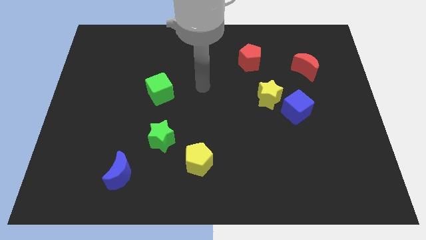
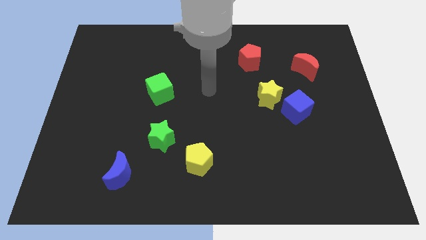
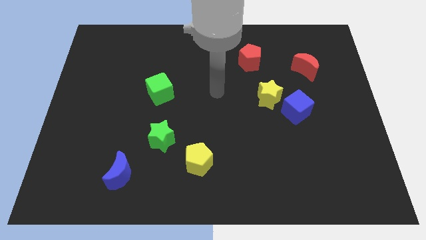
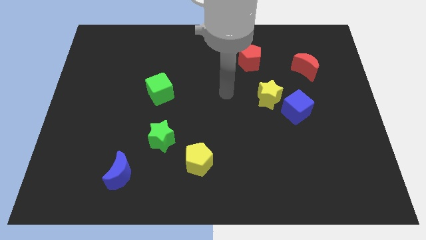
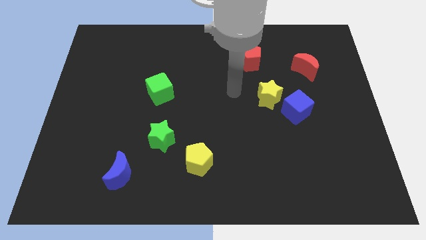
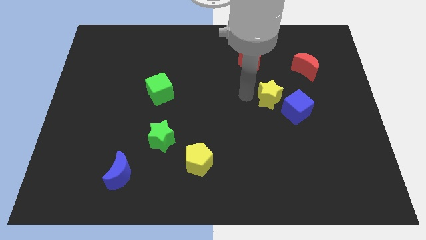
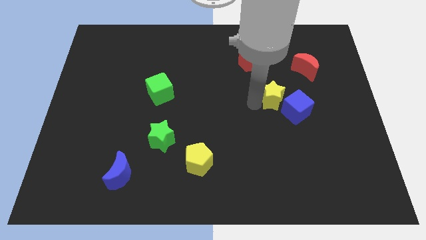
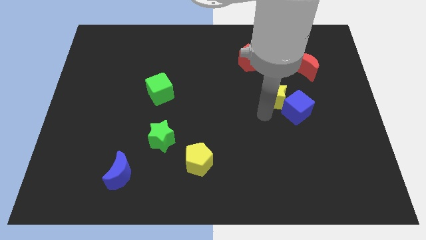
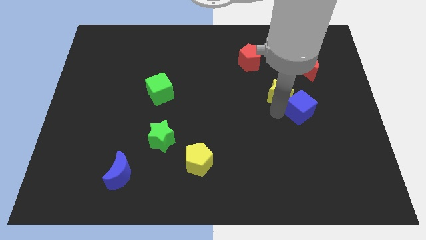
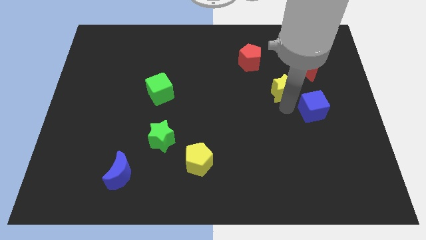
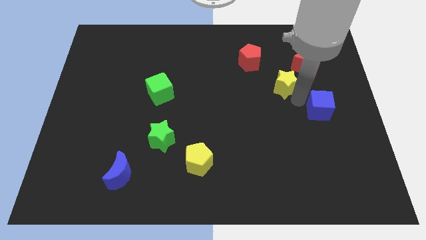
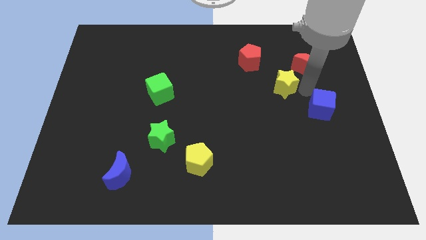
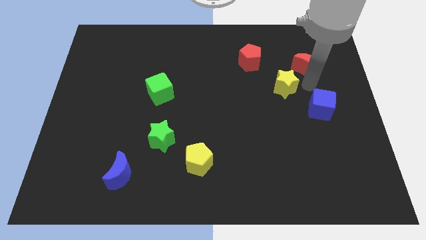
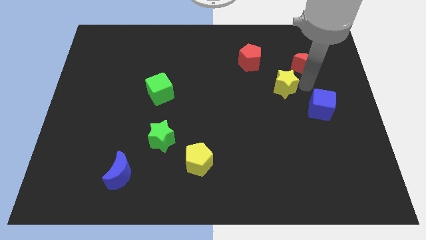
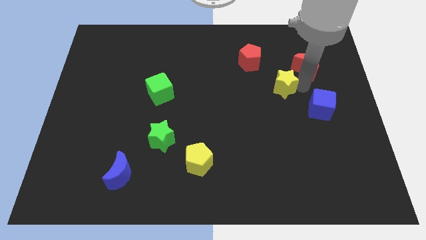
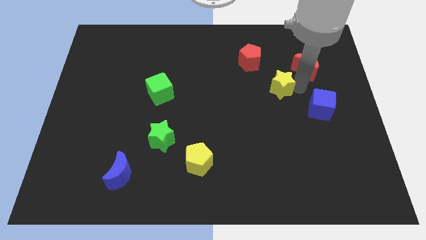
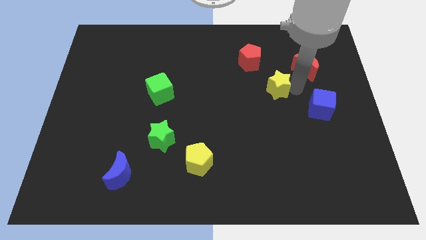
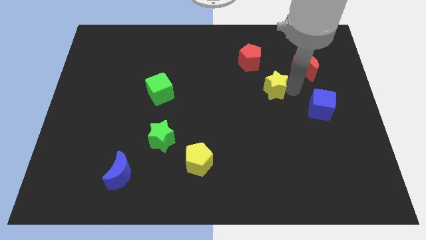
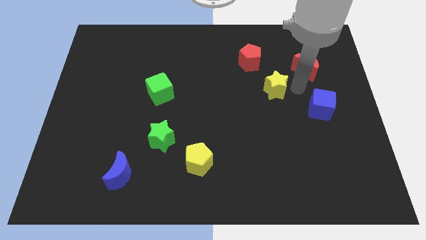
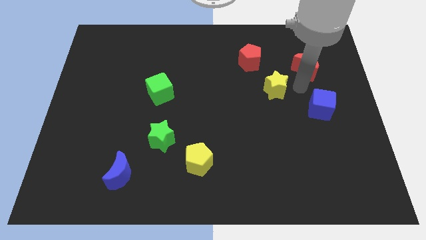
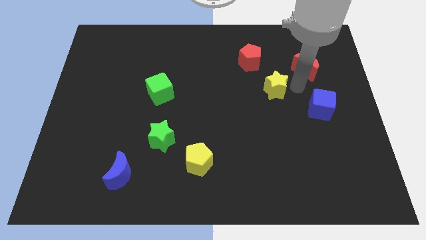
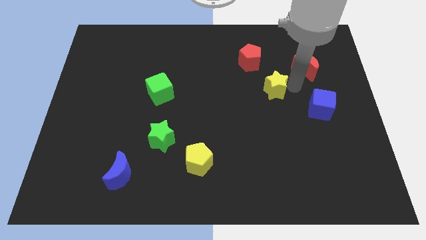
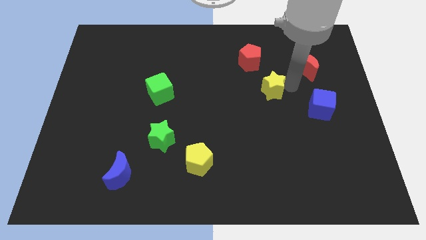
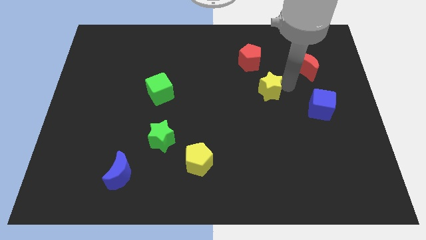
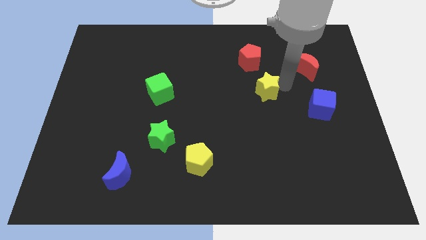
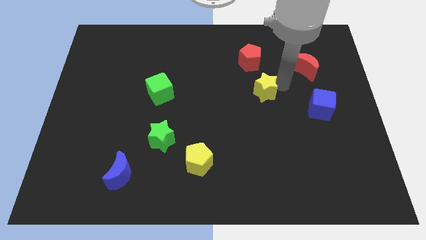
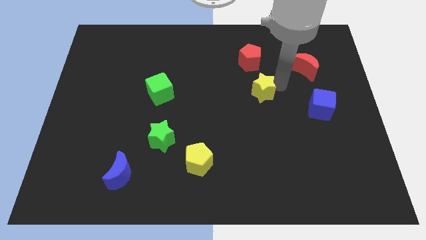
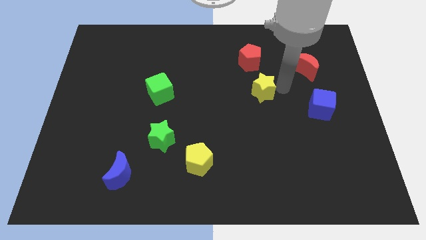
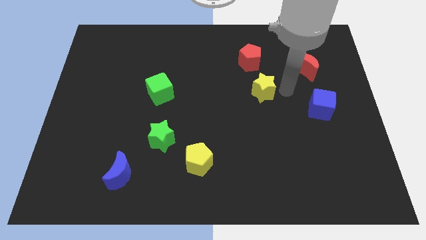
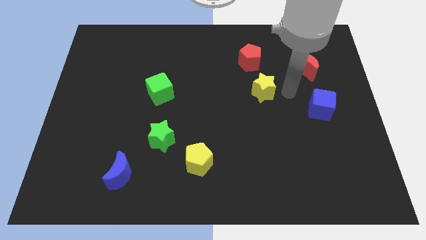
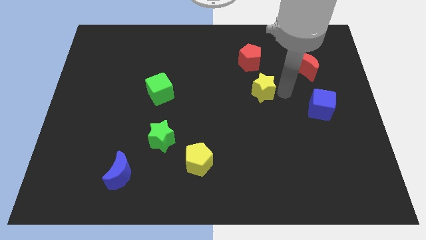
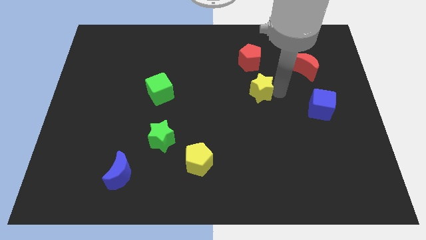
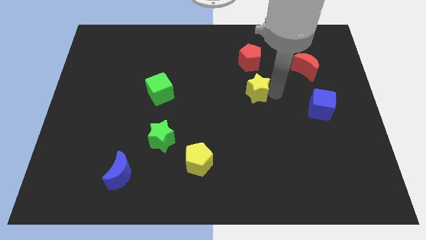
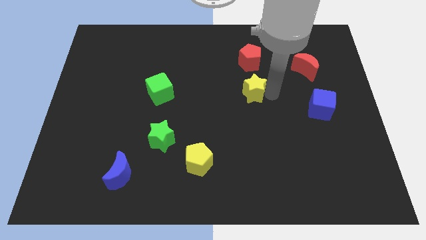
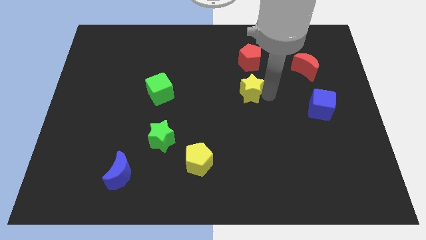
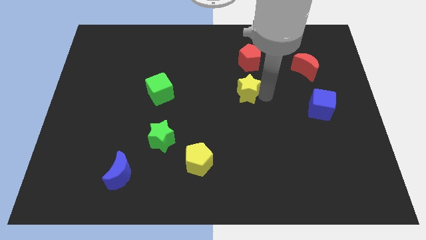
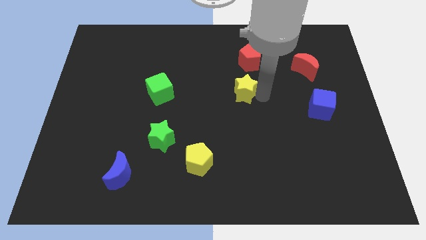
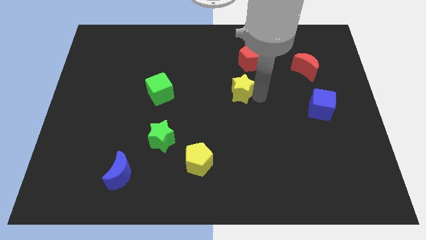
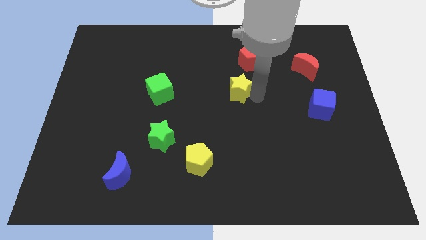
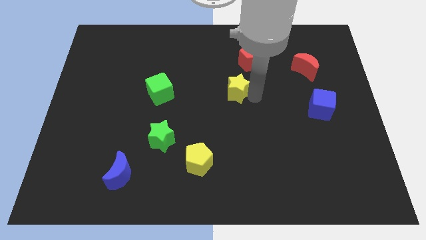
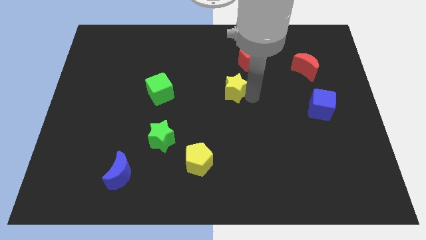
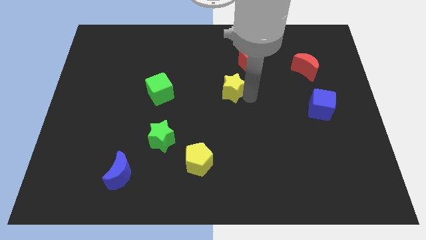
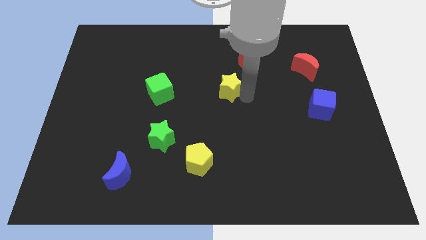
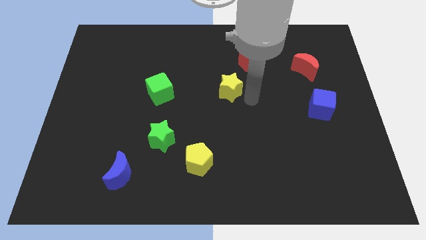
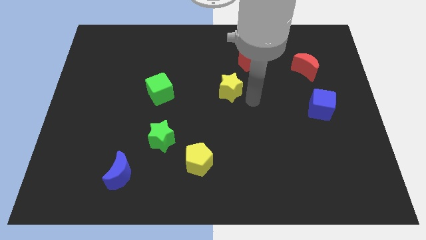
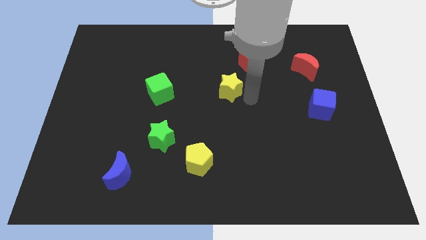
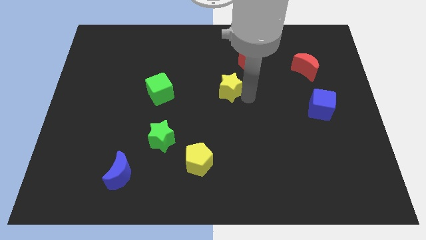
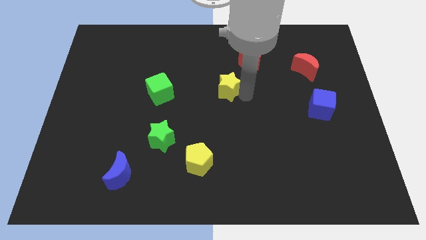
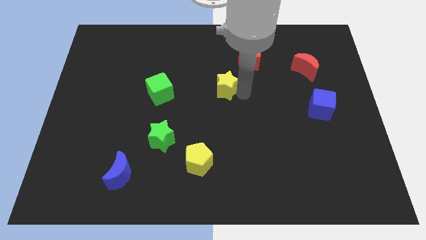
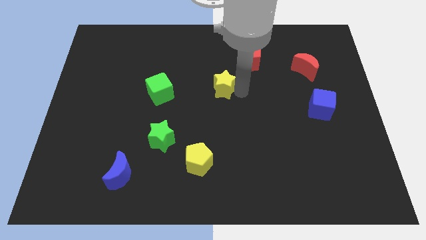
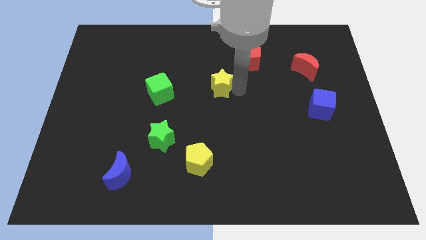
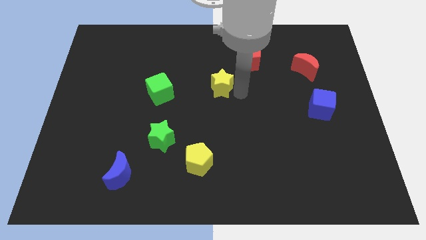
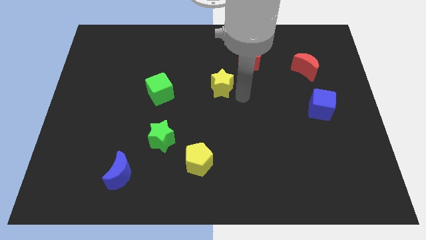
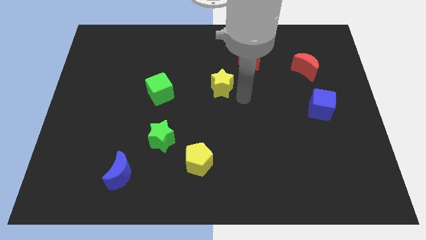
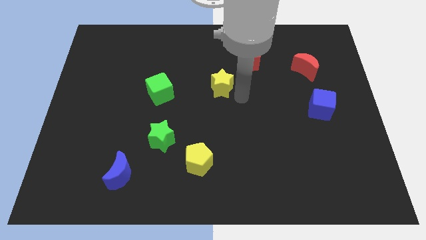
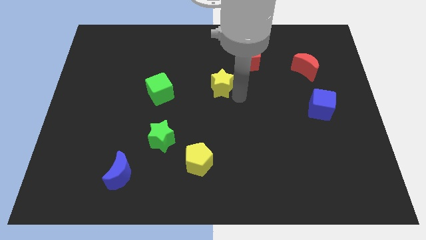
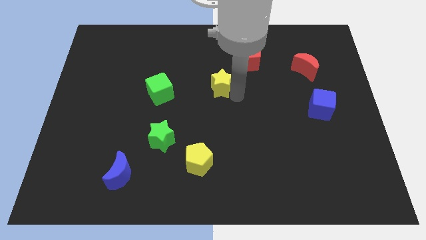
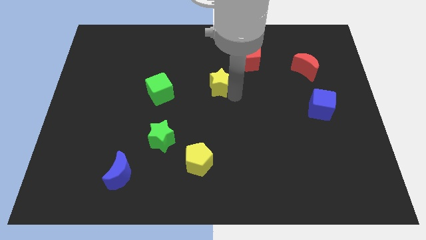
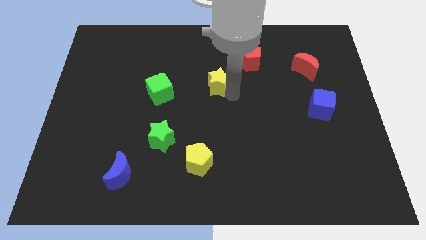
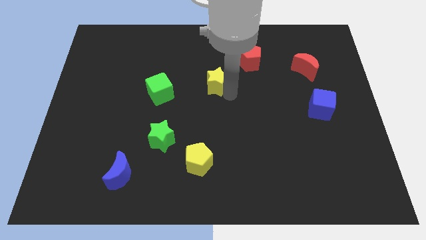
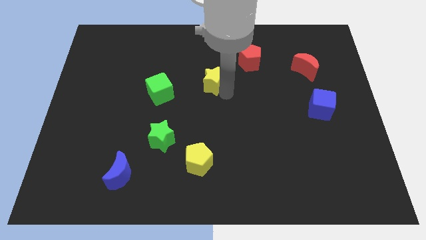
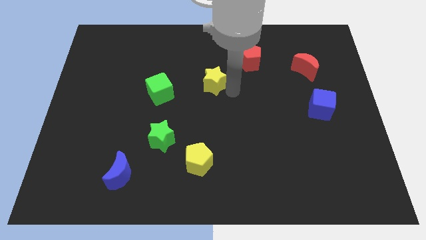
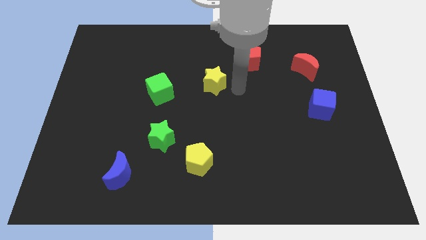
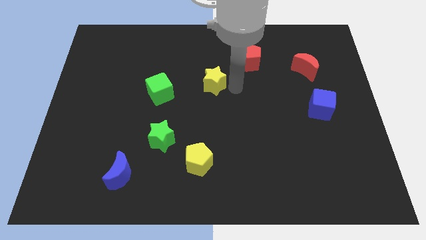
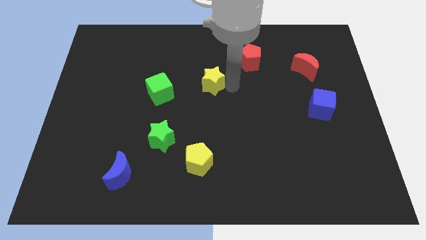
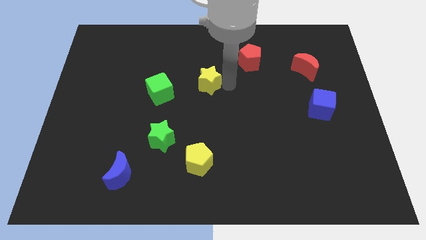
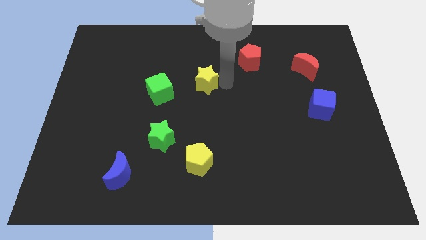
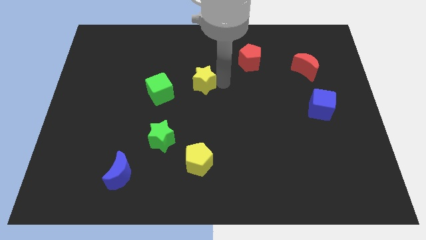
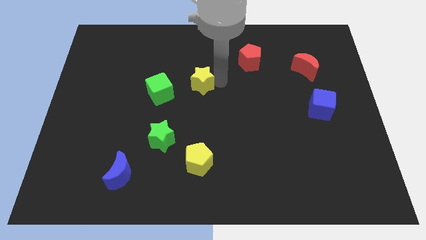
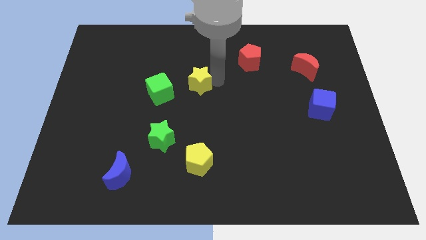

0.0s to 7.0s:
slide the yellow star to the top right side of the green cube

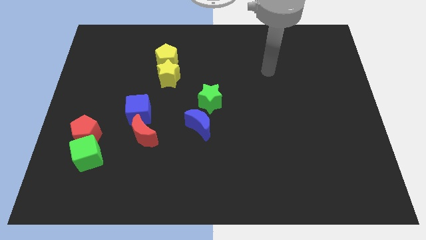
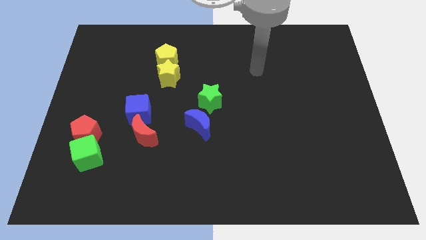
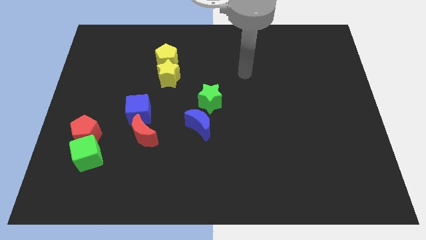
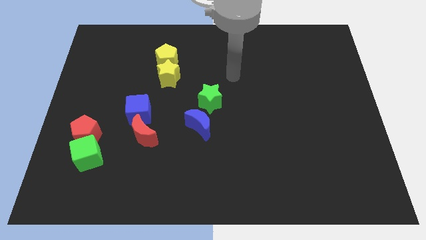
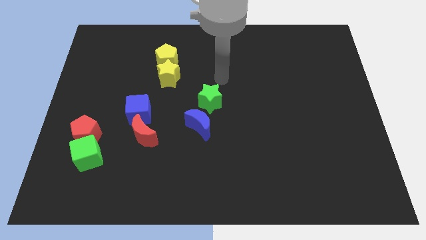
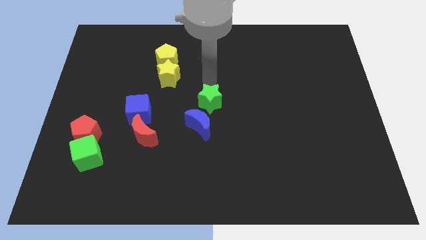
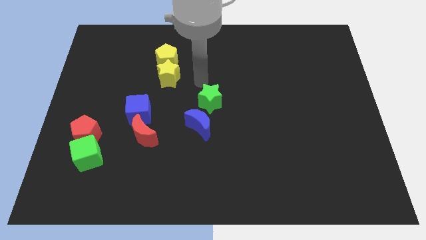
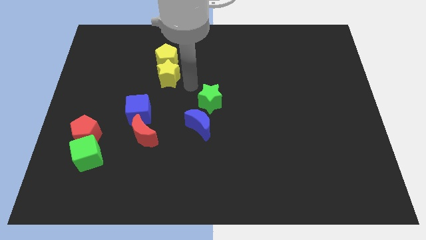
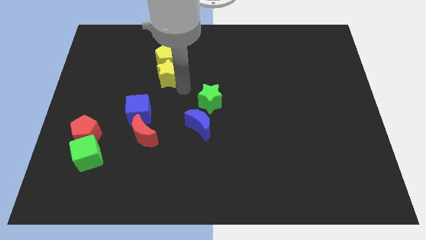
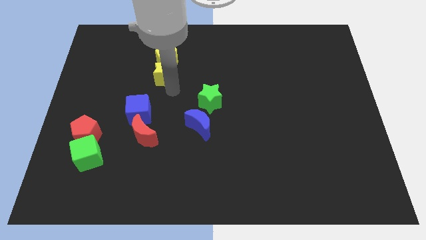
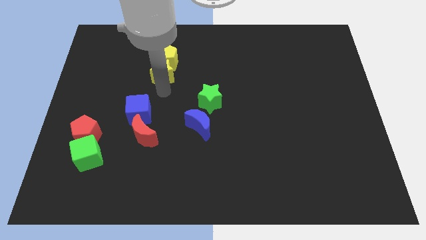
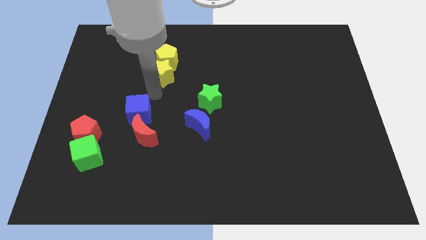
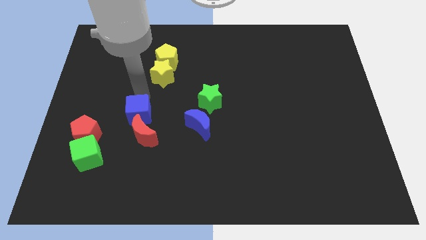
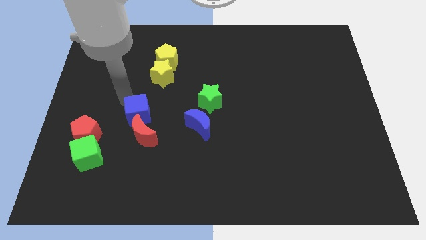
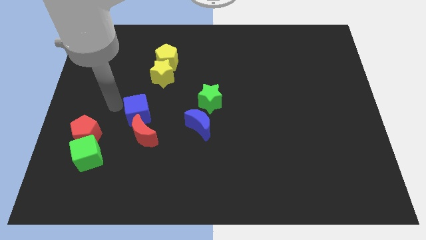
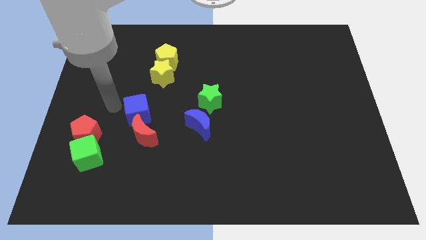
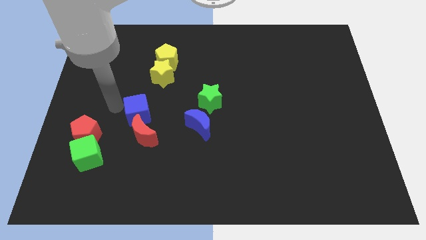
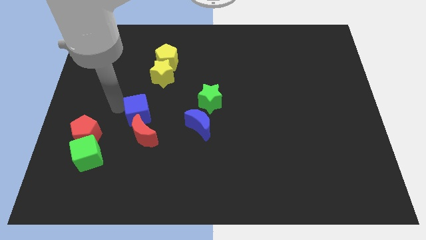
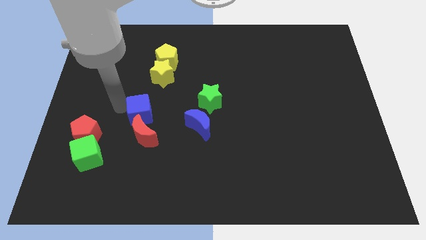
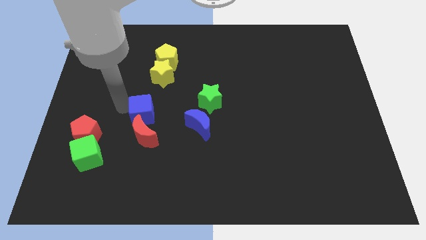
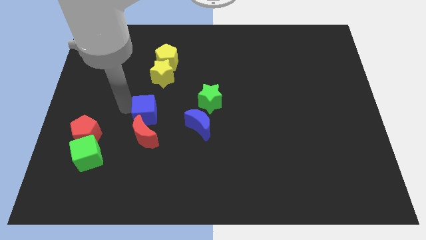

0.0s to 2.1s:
move the blue cube to the top right side of the red moon
